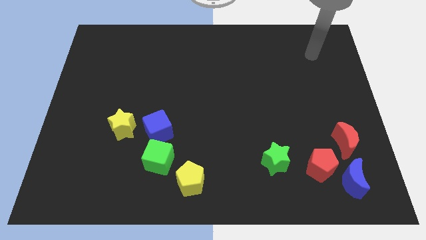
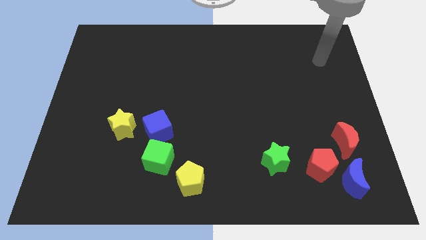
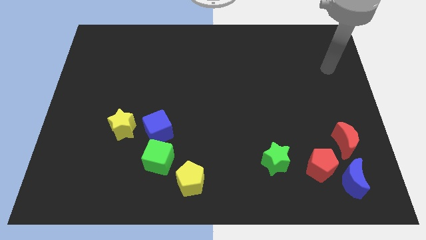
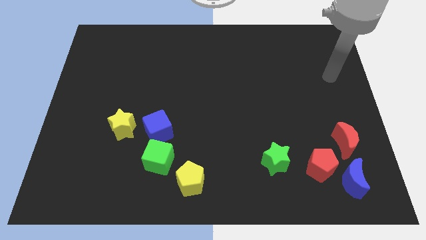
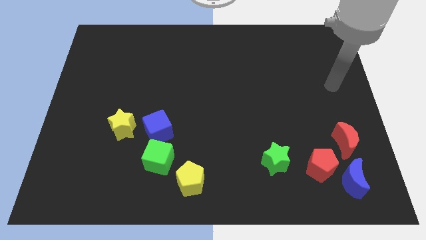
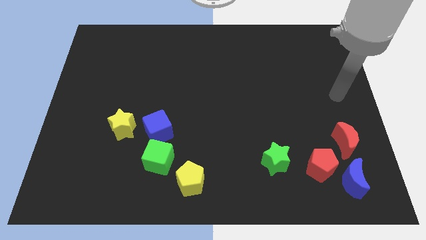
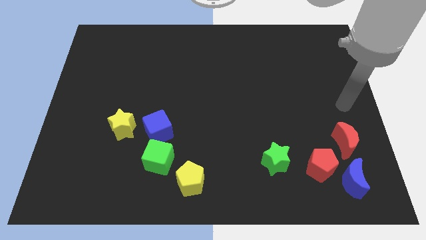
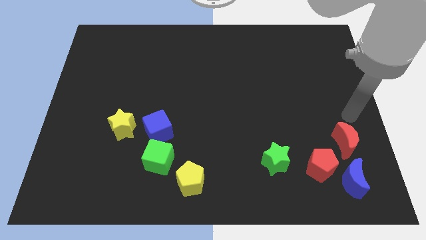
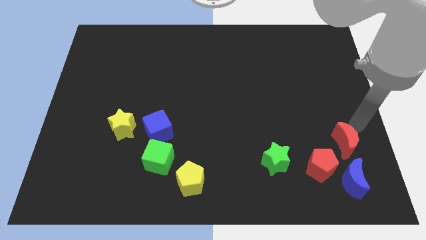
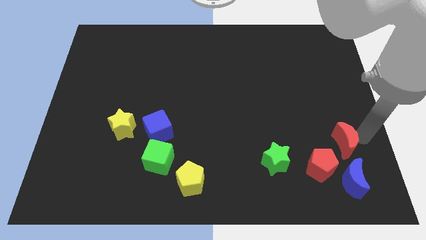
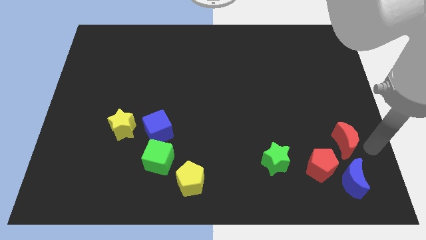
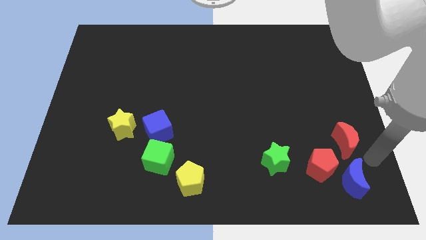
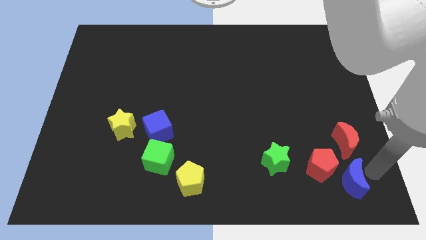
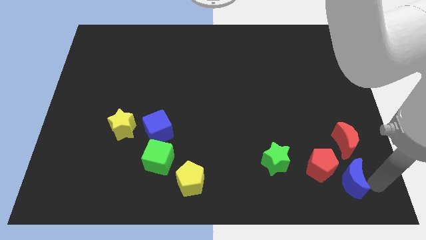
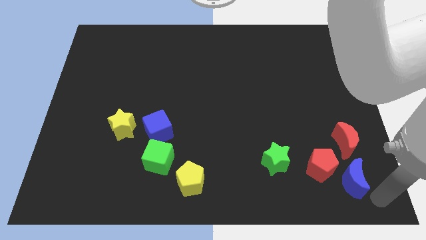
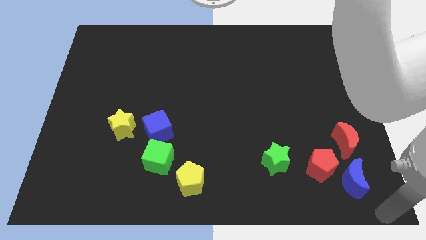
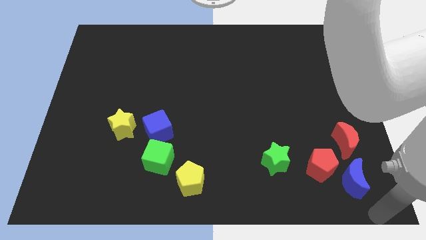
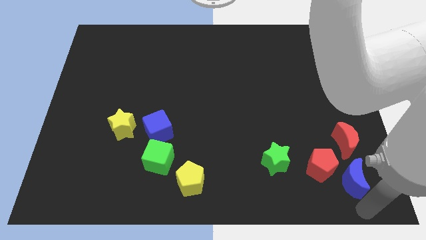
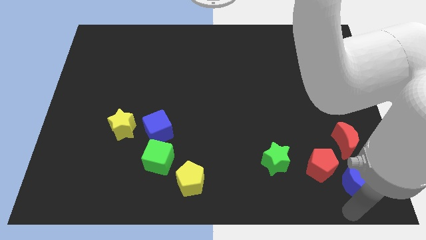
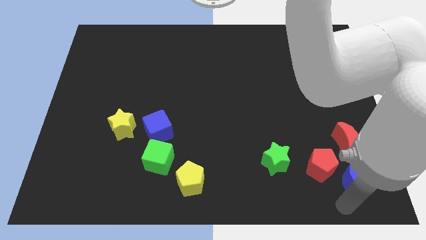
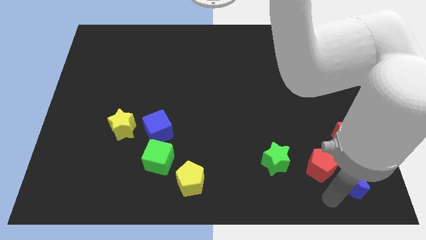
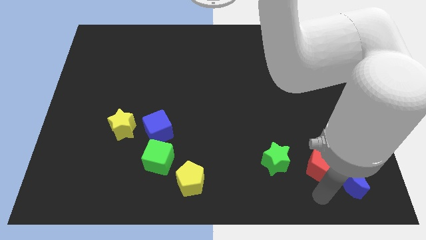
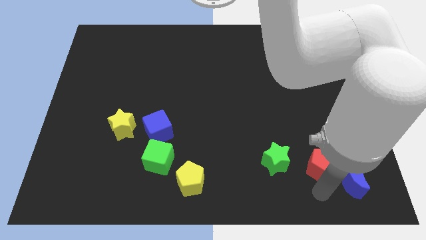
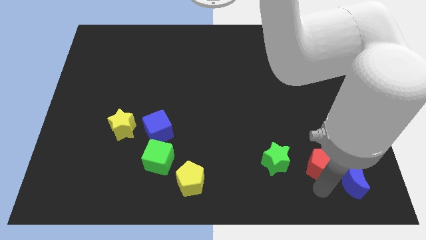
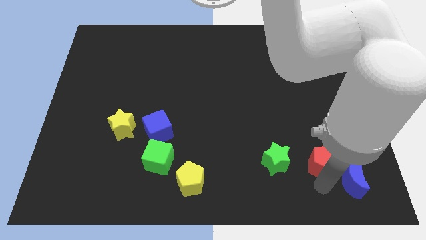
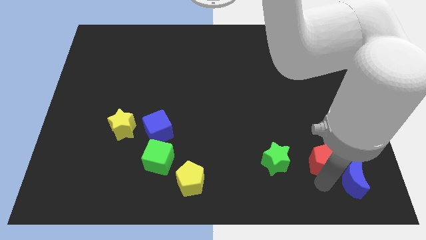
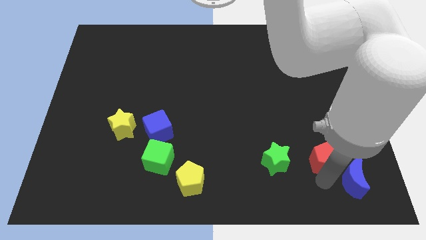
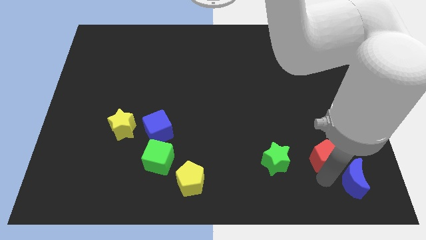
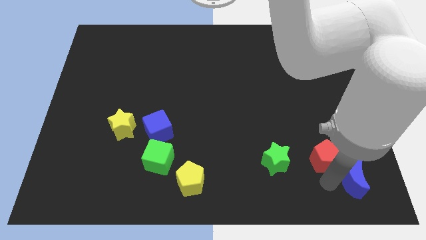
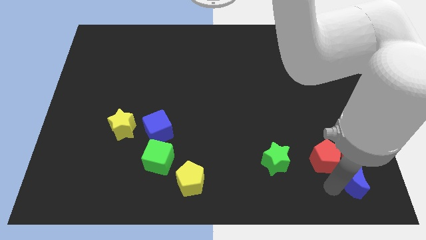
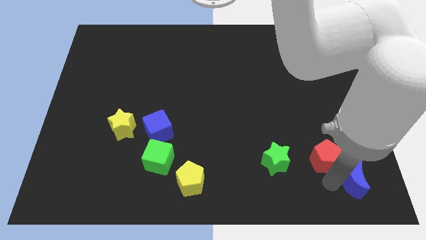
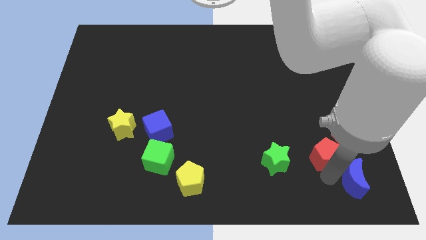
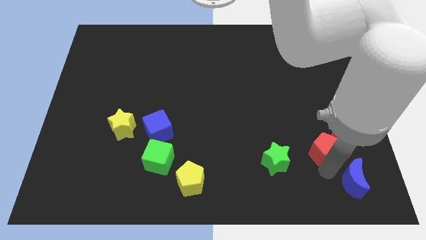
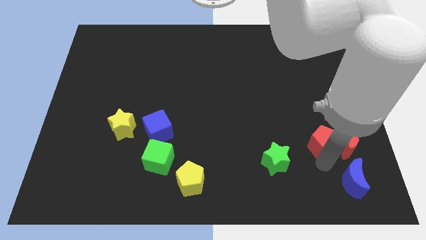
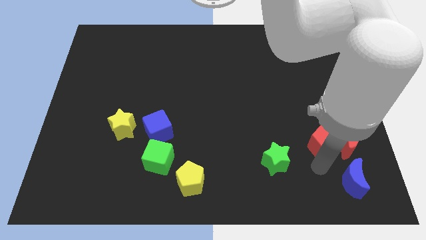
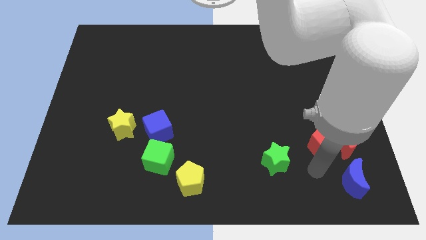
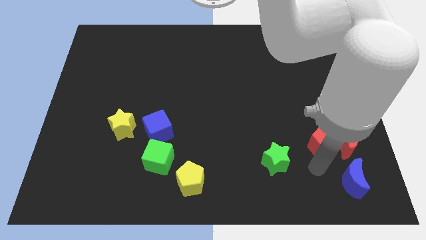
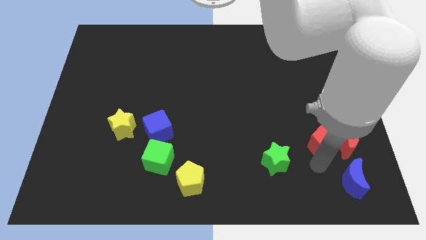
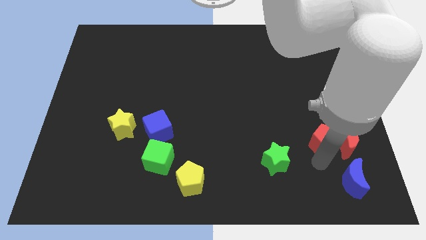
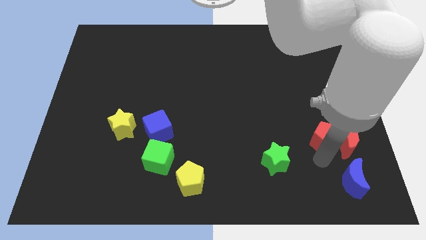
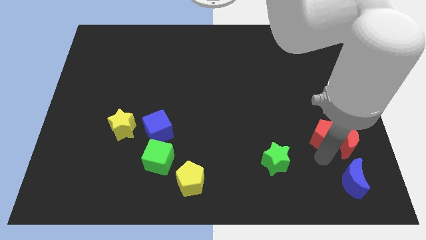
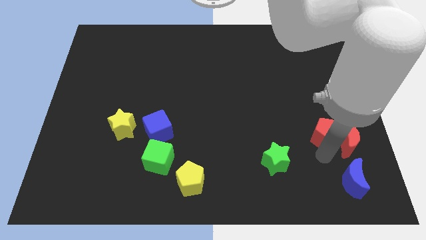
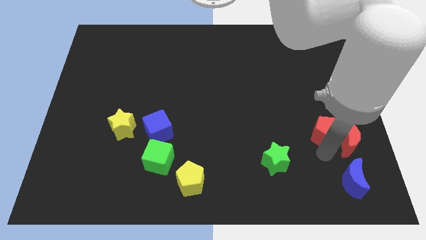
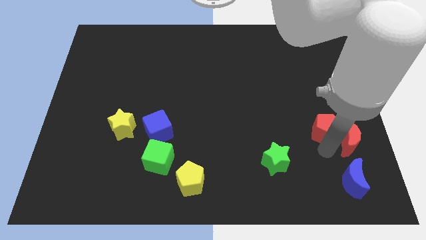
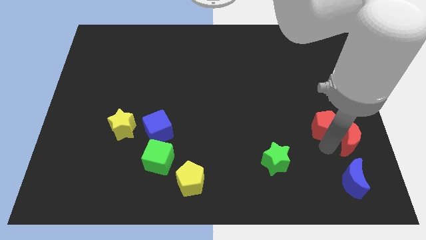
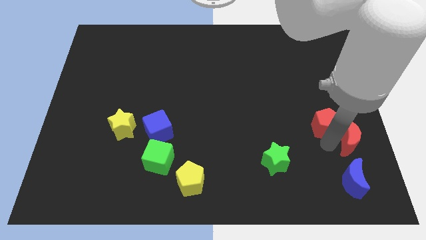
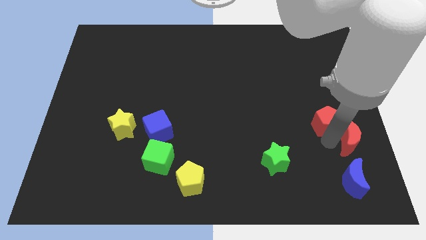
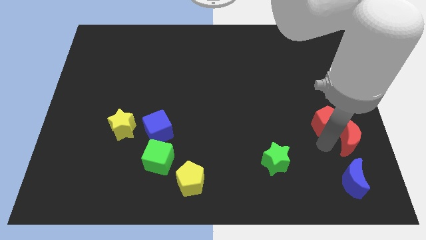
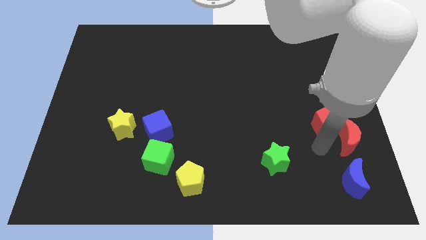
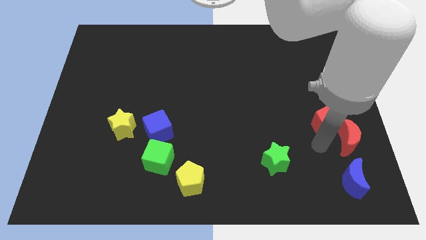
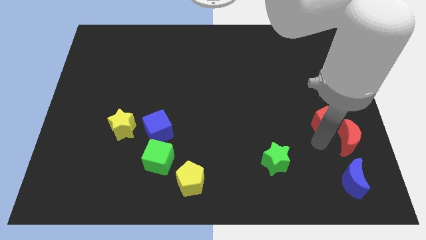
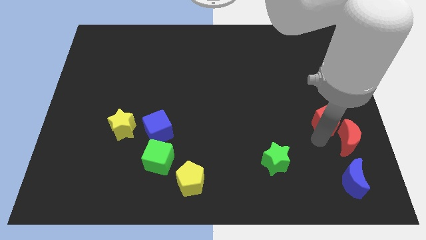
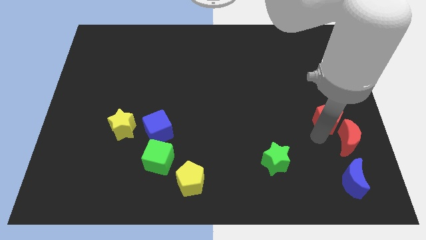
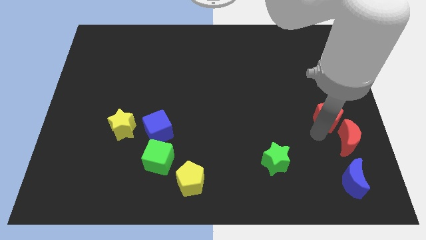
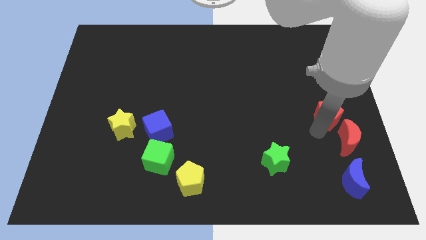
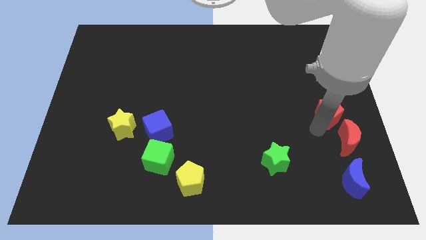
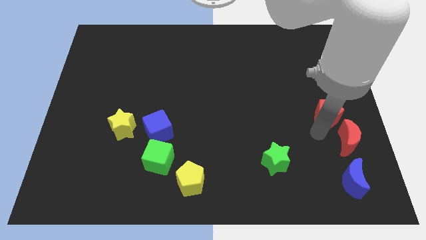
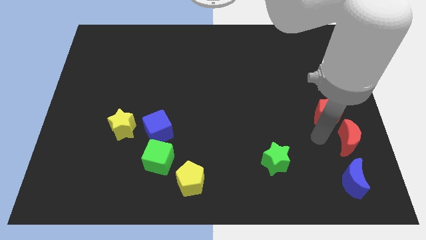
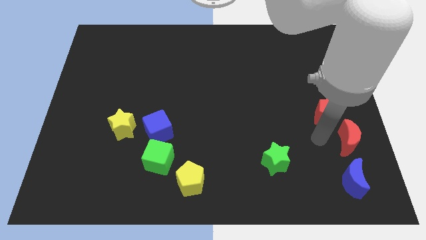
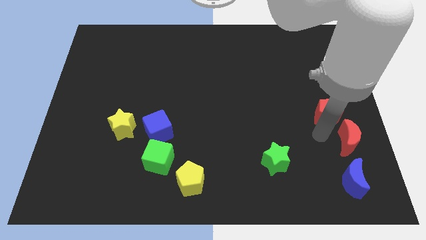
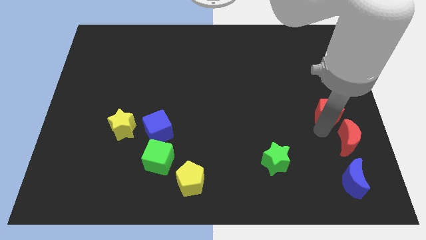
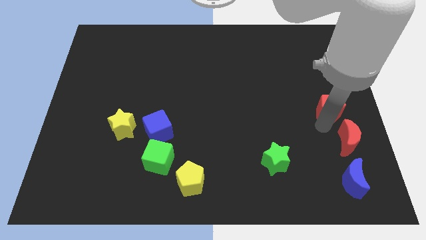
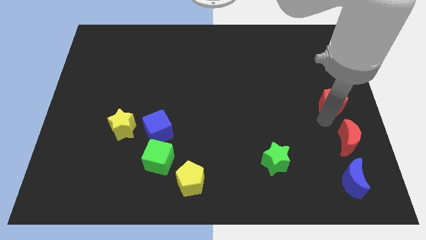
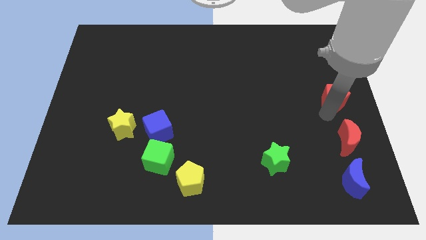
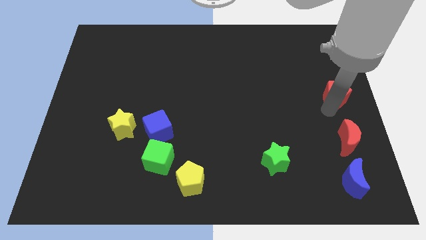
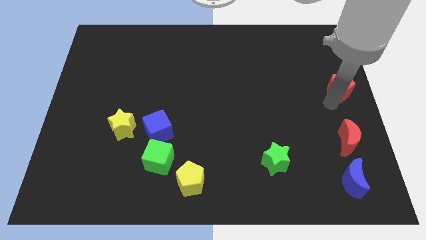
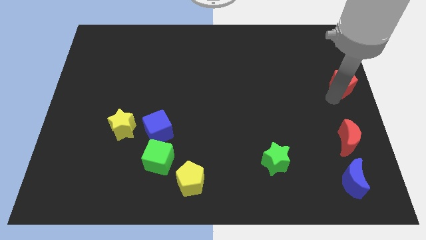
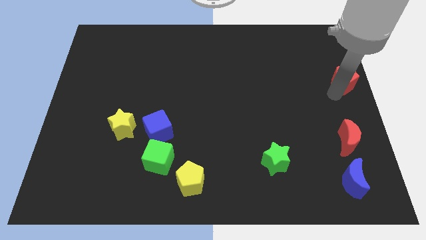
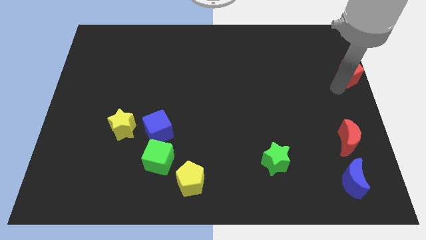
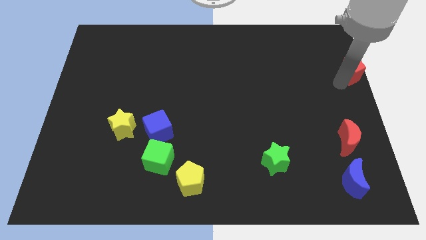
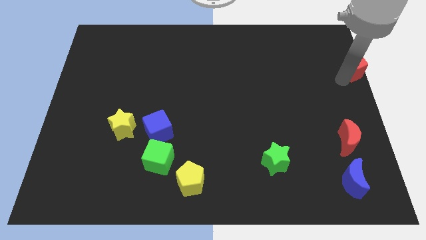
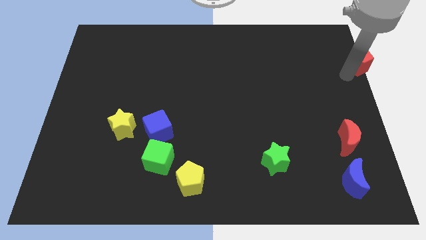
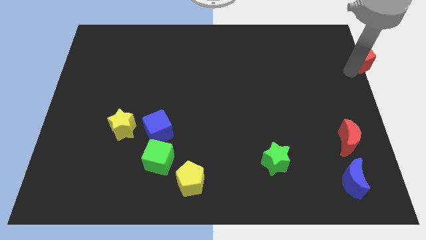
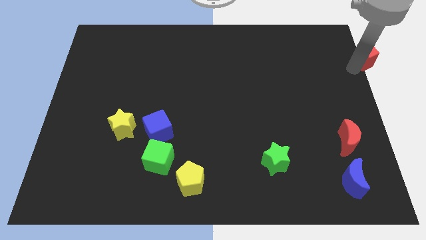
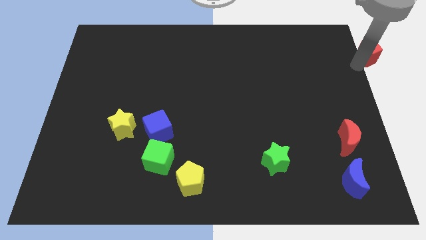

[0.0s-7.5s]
put the red pentagon to the top right
